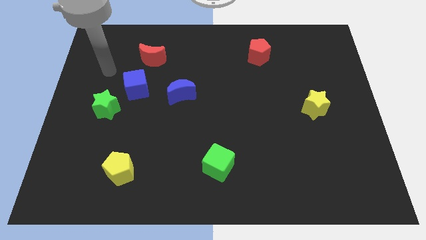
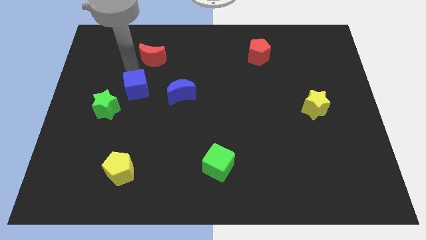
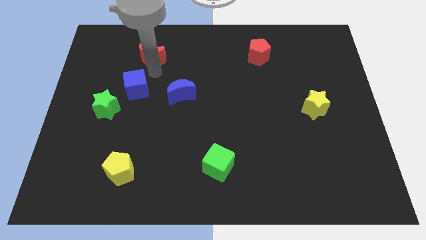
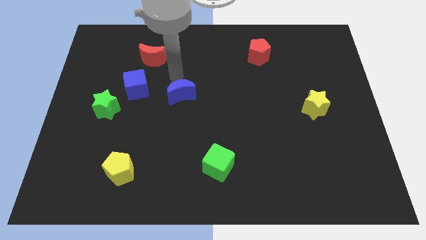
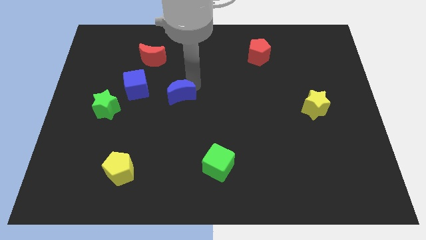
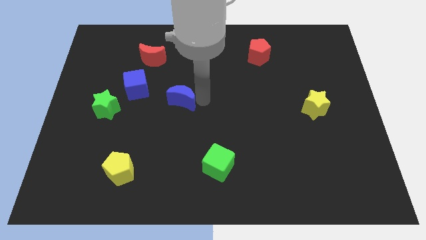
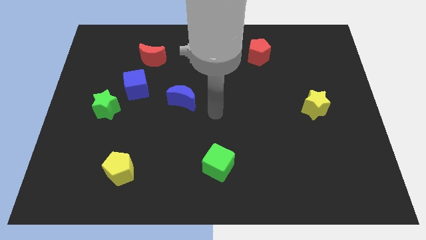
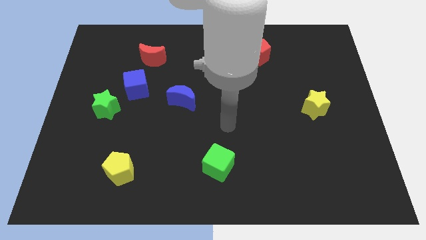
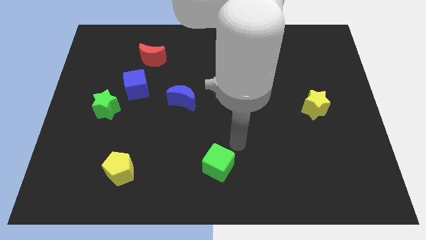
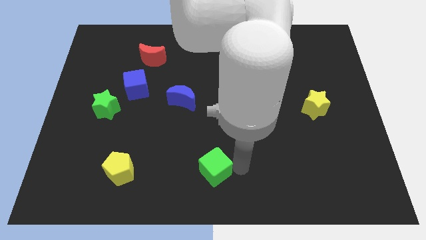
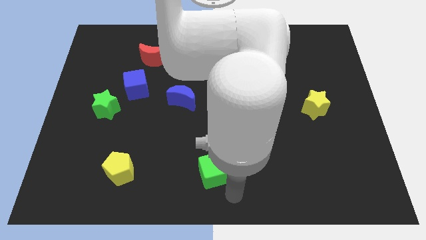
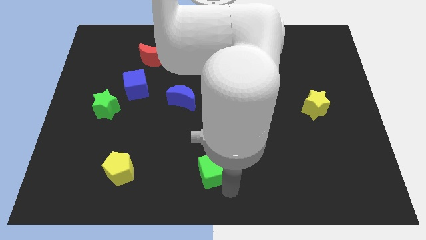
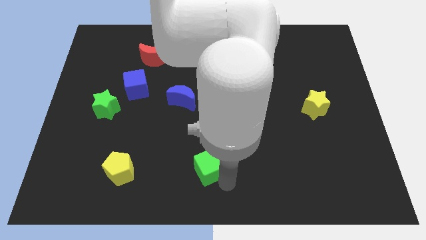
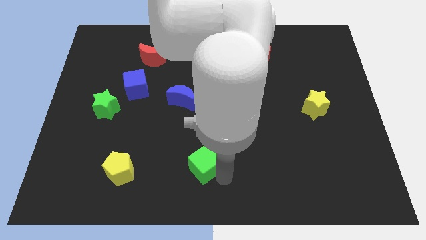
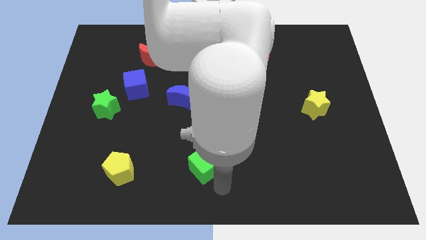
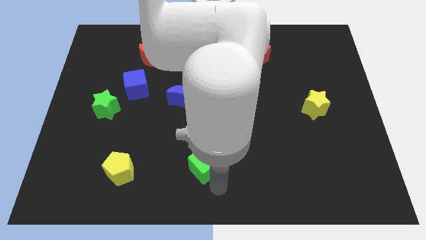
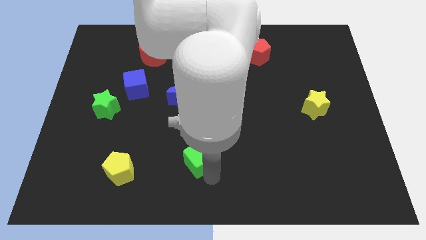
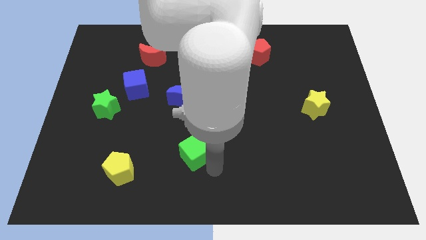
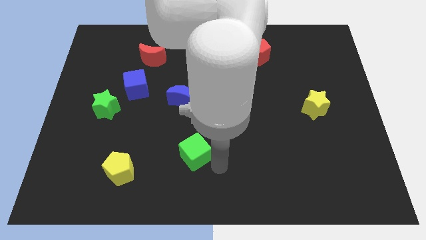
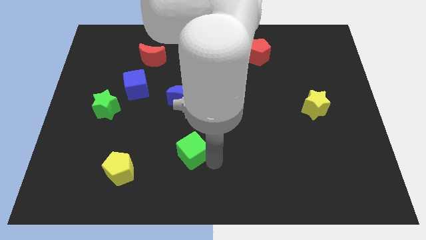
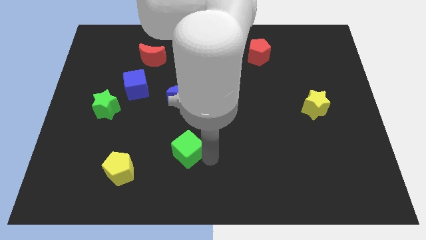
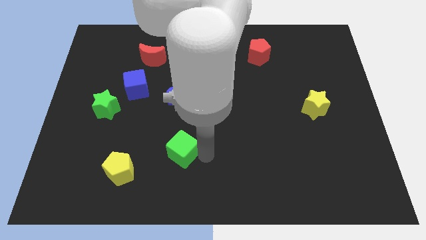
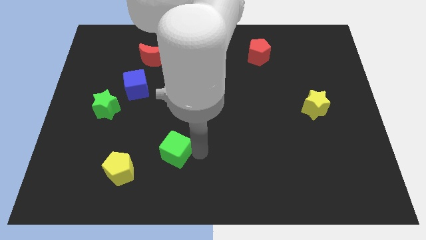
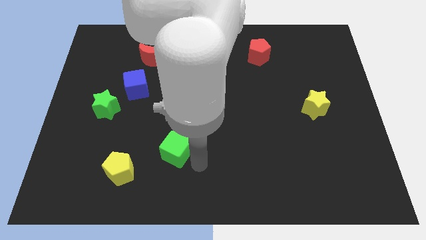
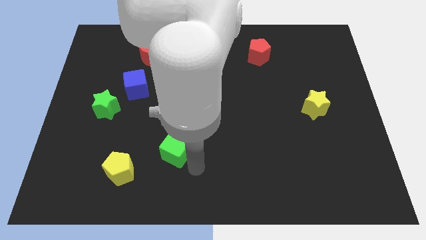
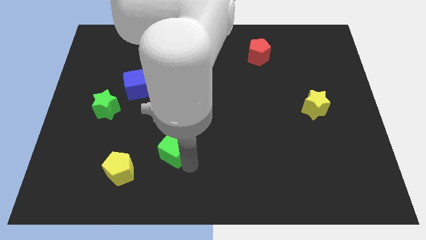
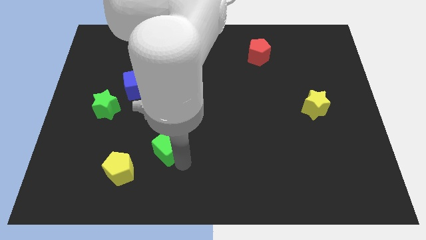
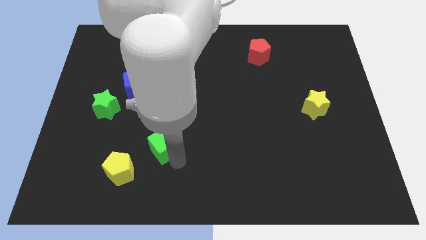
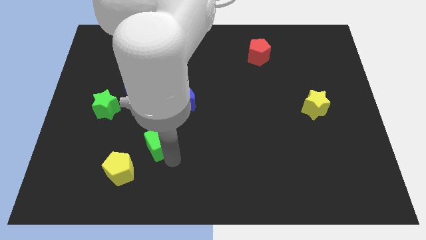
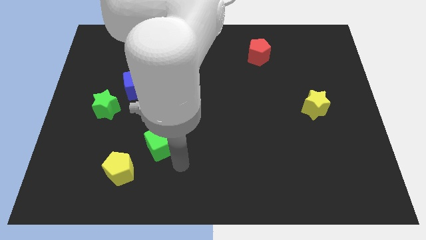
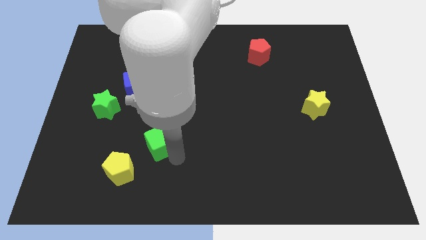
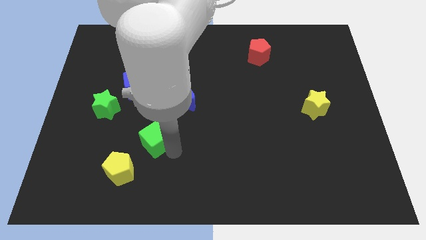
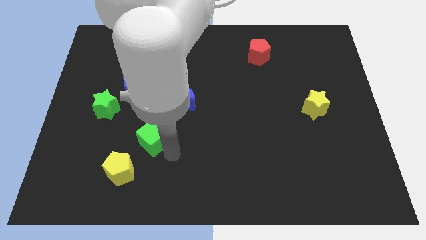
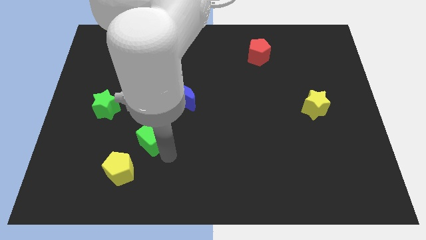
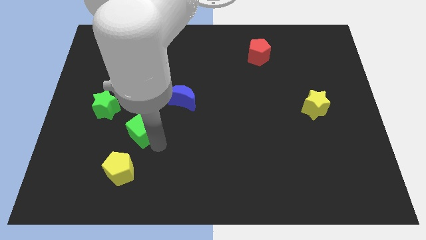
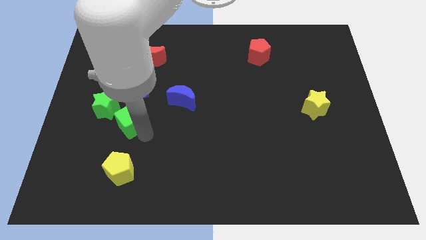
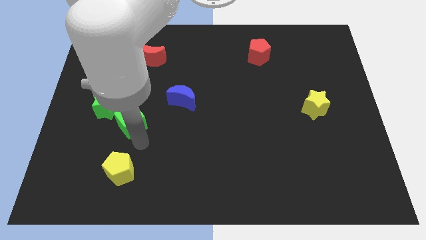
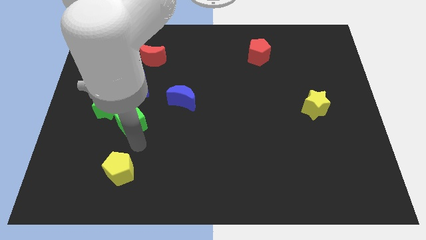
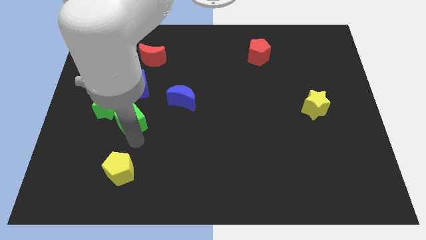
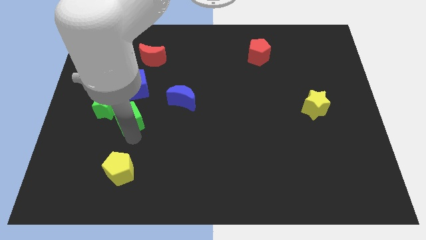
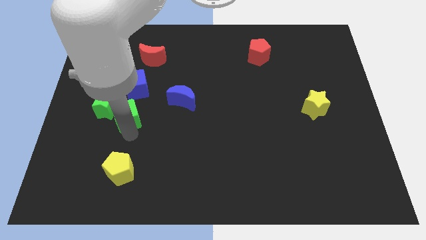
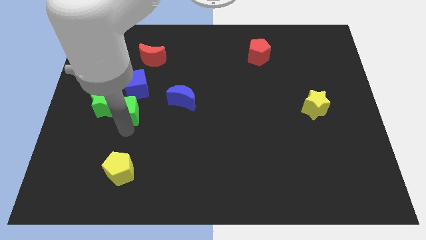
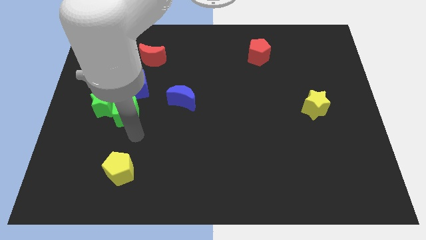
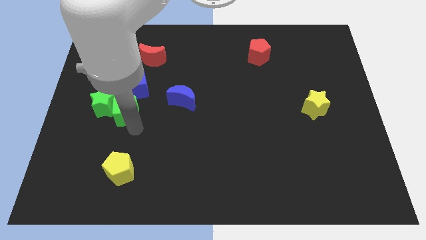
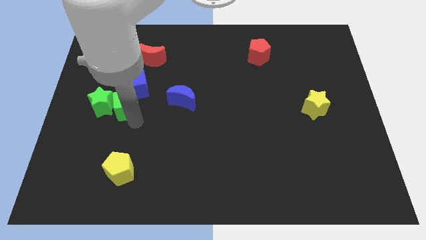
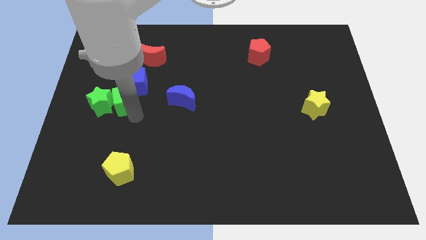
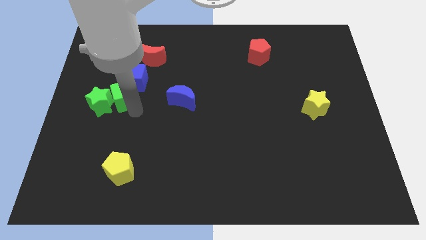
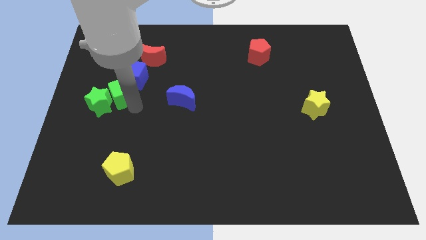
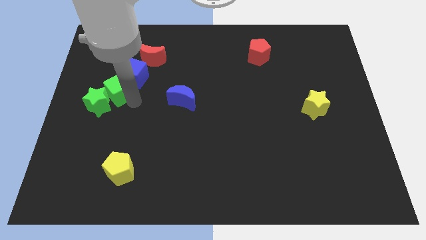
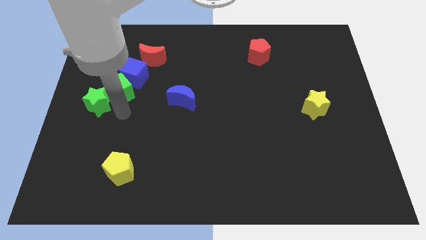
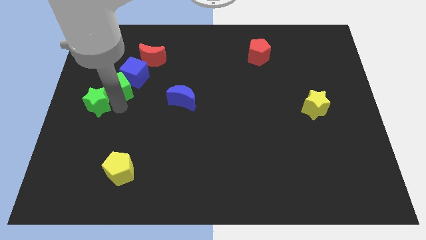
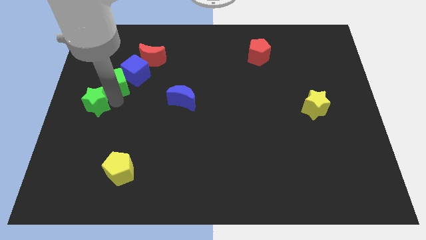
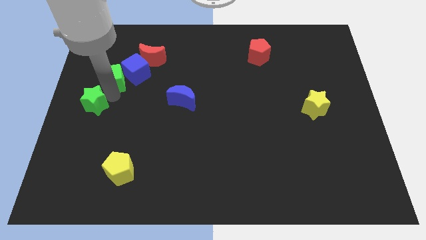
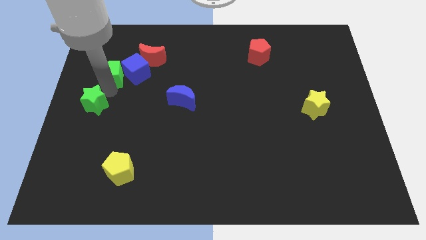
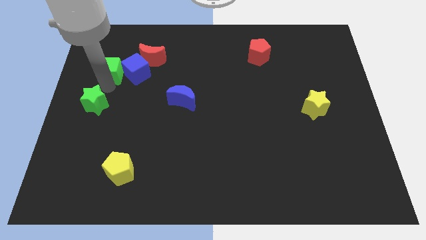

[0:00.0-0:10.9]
push the green cube to the top left side of the blue cube
